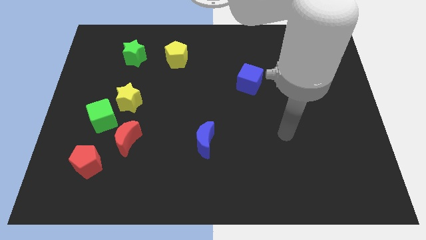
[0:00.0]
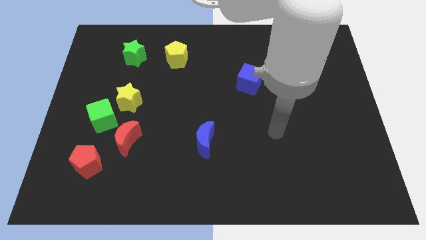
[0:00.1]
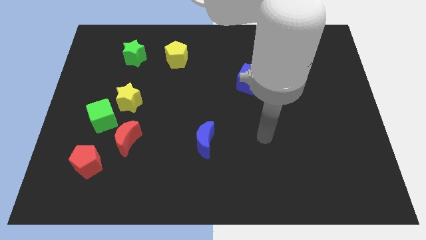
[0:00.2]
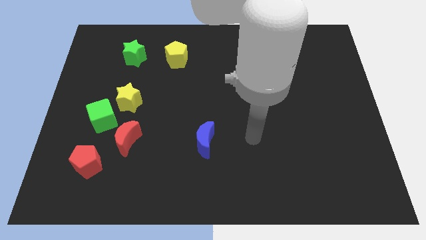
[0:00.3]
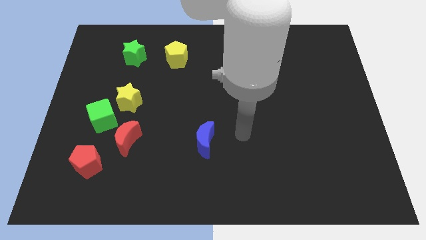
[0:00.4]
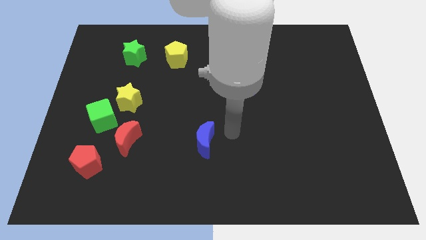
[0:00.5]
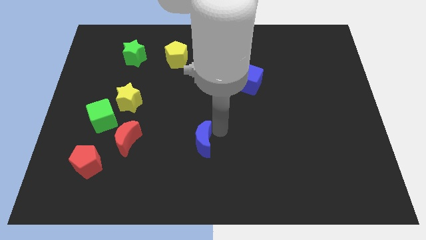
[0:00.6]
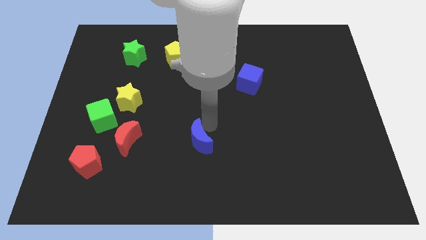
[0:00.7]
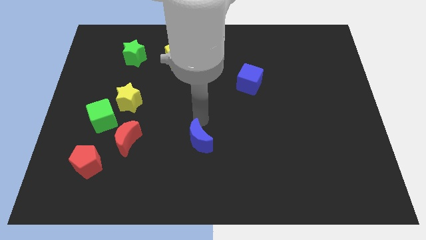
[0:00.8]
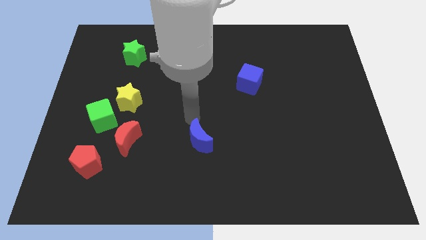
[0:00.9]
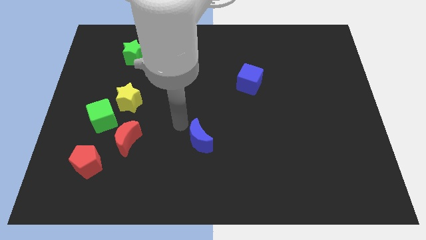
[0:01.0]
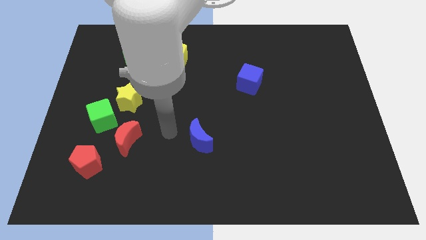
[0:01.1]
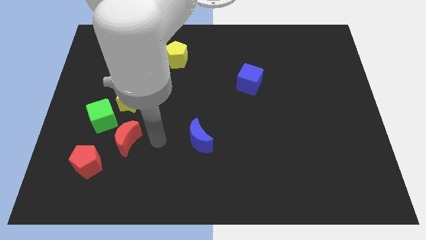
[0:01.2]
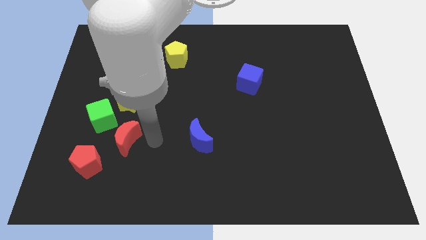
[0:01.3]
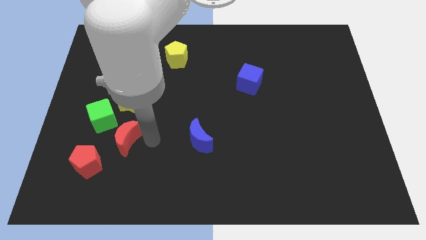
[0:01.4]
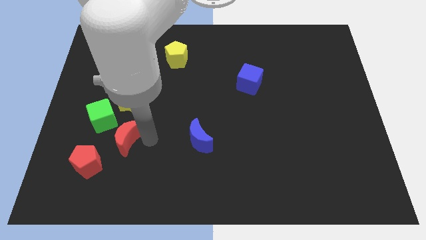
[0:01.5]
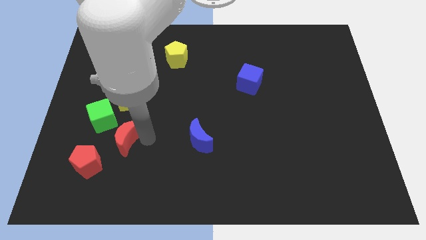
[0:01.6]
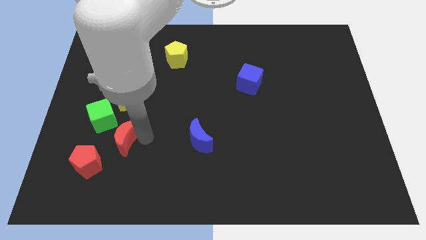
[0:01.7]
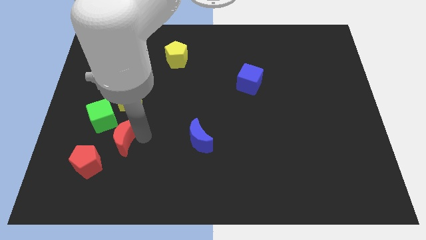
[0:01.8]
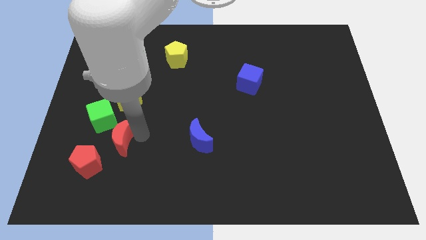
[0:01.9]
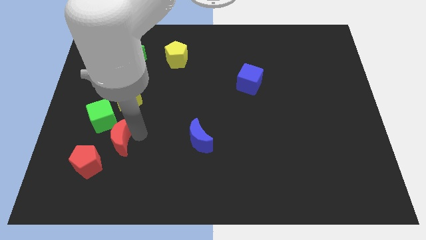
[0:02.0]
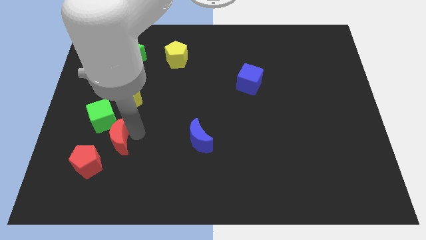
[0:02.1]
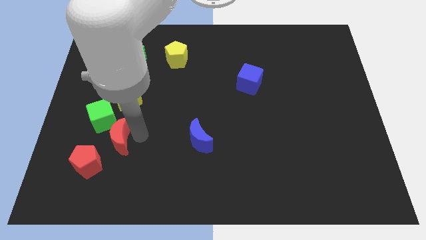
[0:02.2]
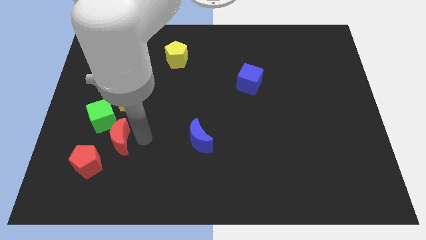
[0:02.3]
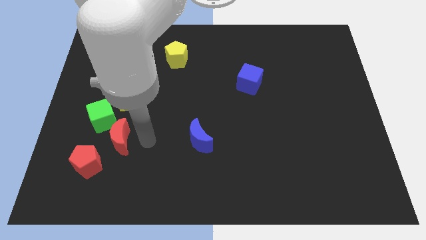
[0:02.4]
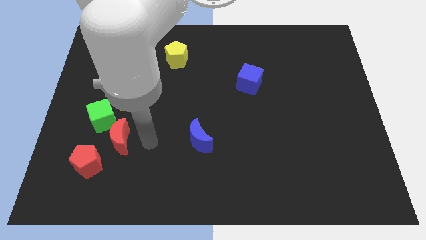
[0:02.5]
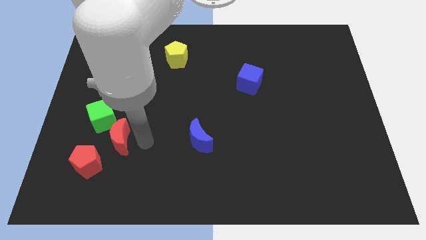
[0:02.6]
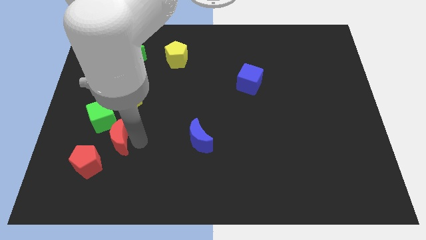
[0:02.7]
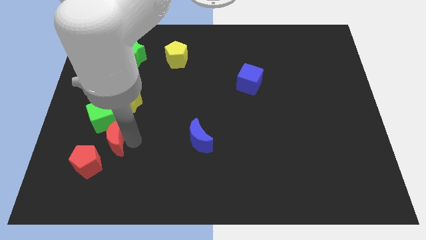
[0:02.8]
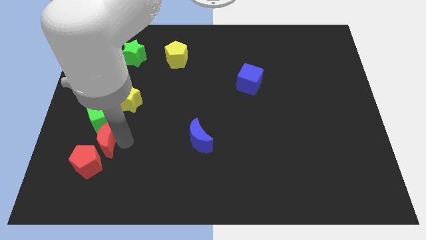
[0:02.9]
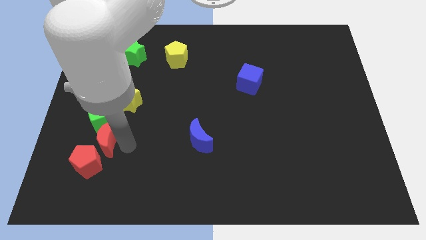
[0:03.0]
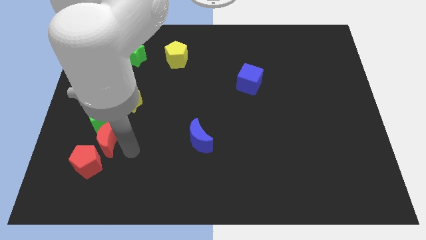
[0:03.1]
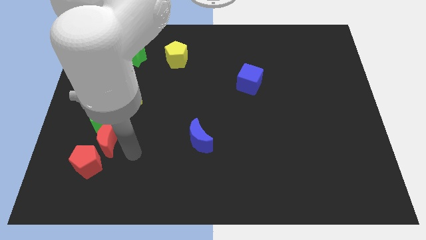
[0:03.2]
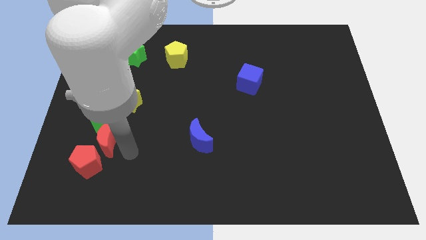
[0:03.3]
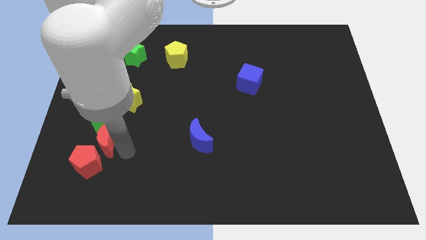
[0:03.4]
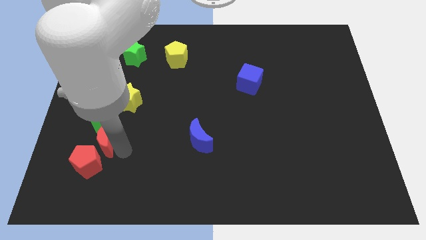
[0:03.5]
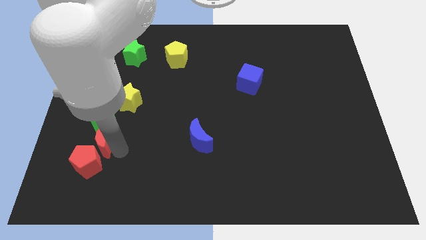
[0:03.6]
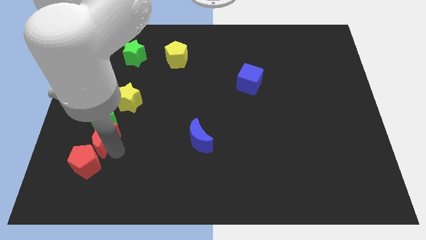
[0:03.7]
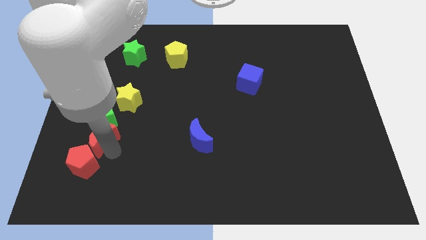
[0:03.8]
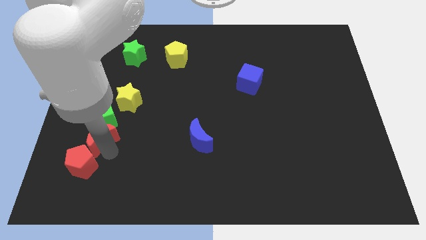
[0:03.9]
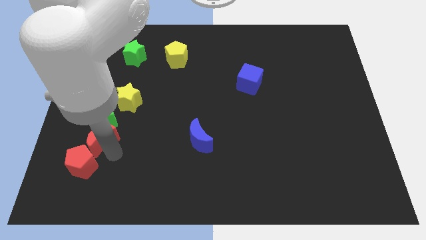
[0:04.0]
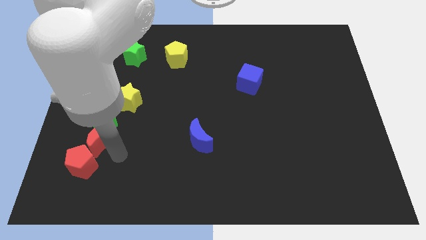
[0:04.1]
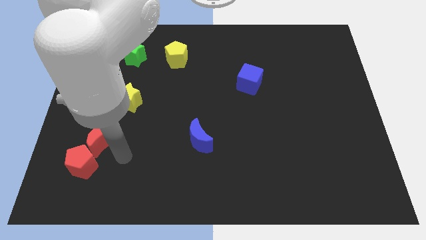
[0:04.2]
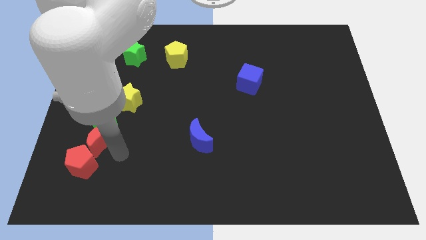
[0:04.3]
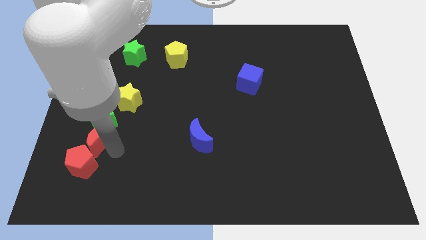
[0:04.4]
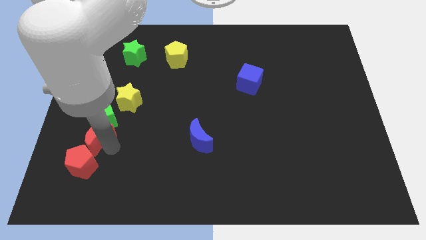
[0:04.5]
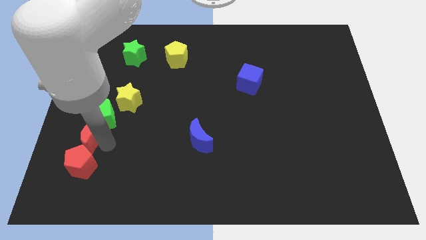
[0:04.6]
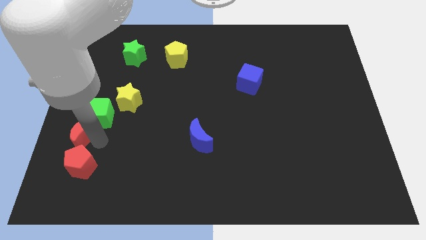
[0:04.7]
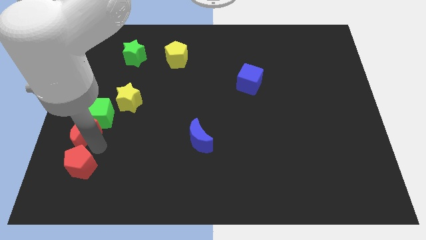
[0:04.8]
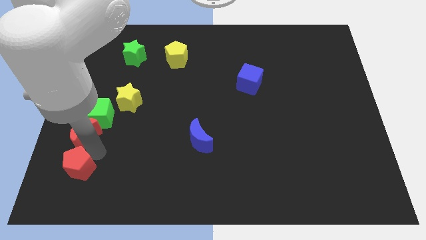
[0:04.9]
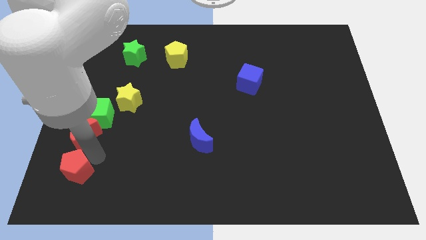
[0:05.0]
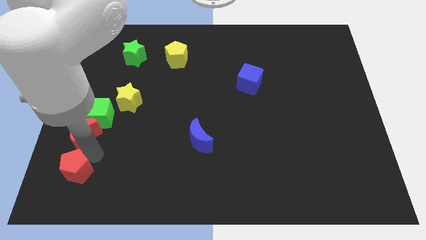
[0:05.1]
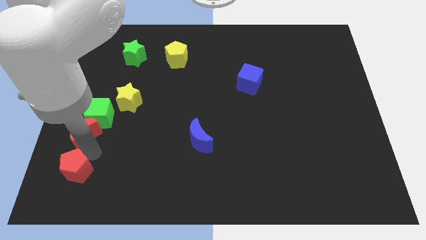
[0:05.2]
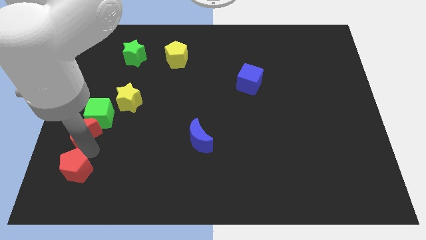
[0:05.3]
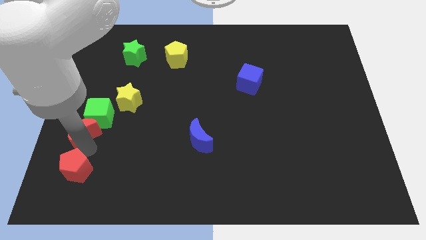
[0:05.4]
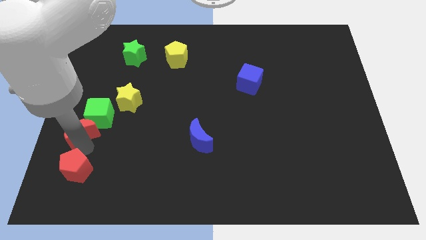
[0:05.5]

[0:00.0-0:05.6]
push the red moon to the left side of the board

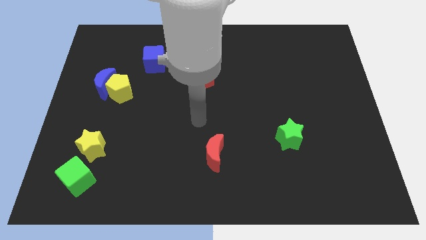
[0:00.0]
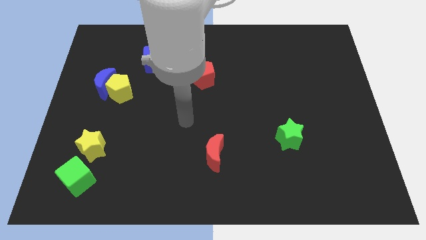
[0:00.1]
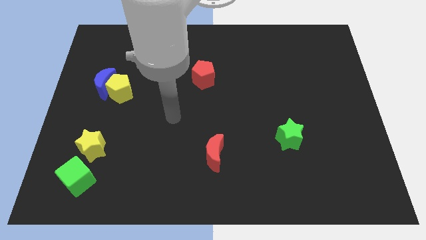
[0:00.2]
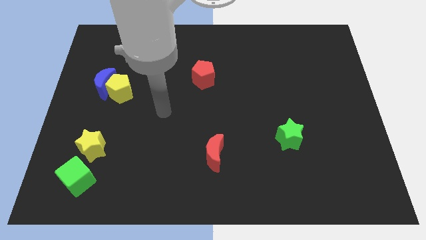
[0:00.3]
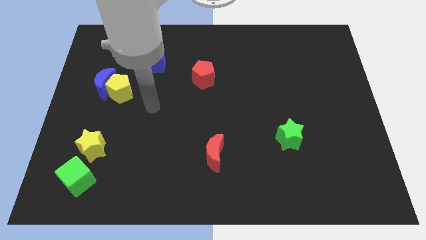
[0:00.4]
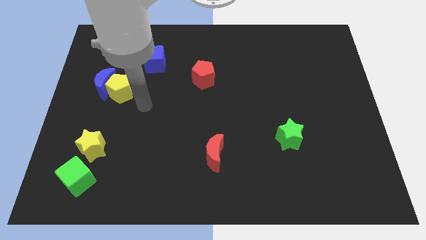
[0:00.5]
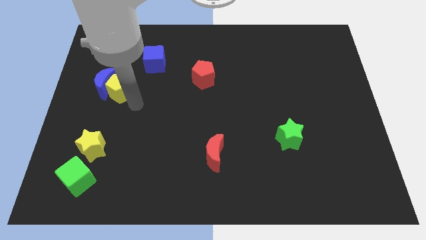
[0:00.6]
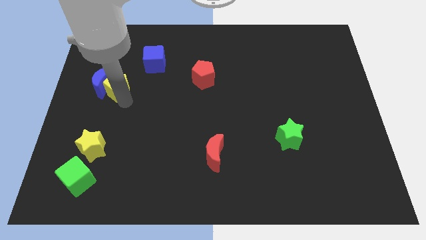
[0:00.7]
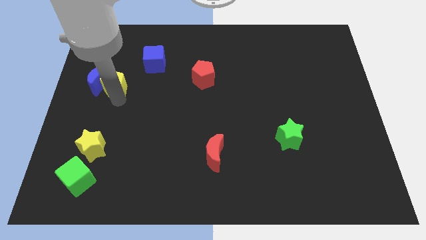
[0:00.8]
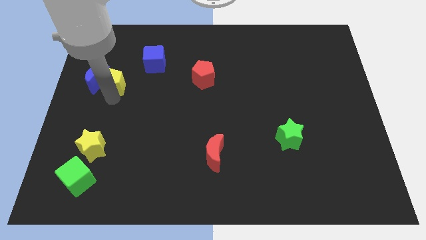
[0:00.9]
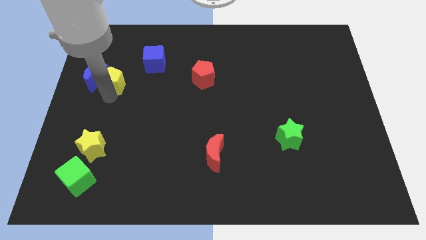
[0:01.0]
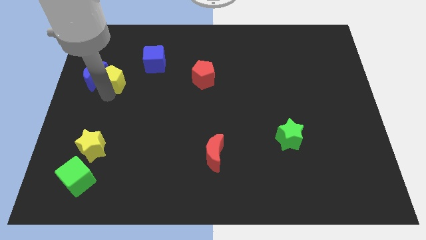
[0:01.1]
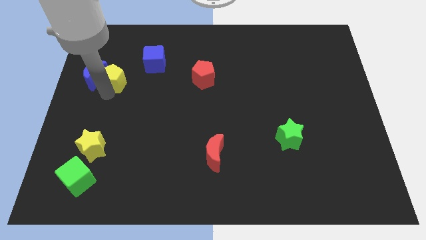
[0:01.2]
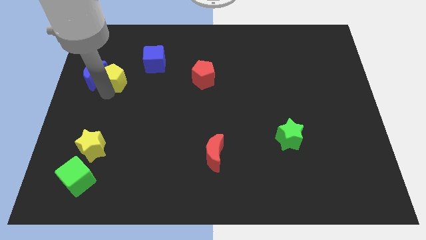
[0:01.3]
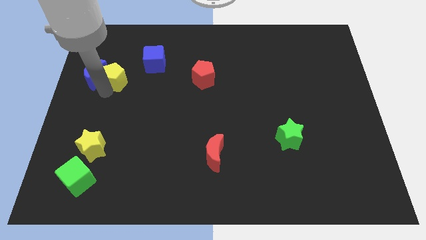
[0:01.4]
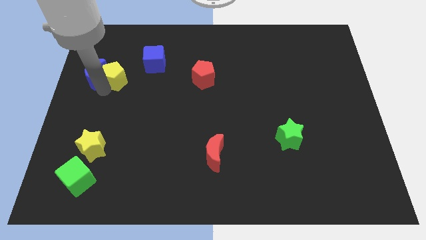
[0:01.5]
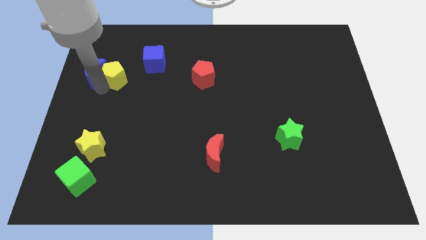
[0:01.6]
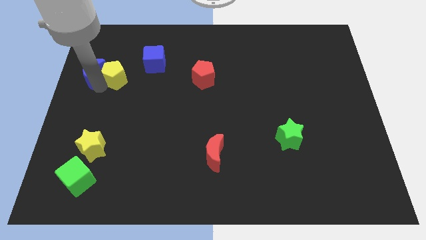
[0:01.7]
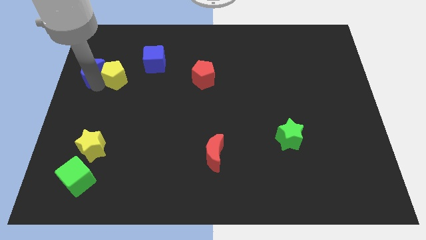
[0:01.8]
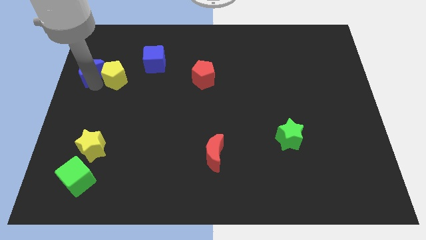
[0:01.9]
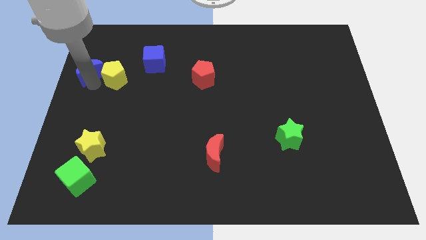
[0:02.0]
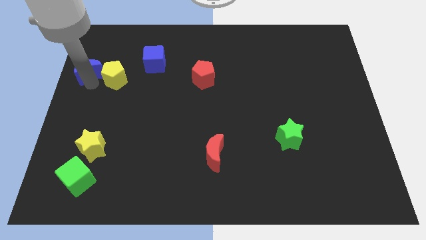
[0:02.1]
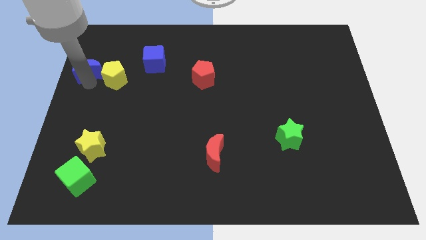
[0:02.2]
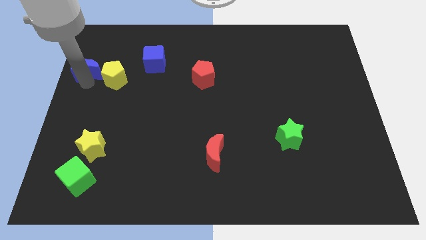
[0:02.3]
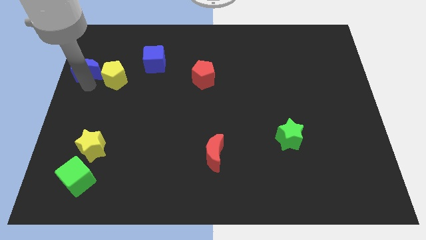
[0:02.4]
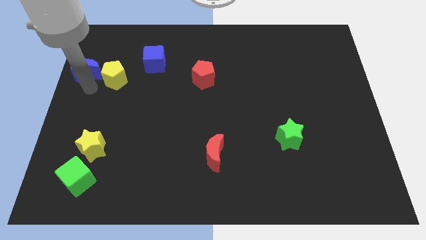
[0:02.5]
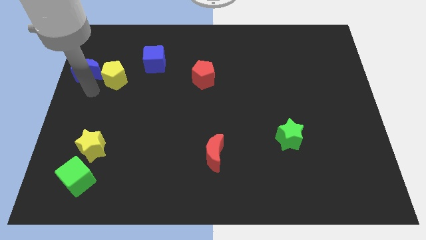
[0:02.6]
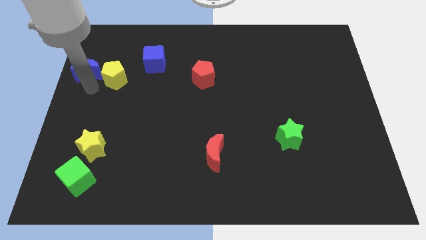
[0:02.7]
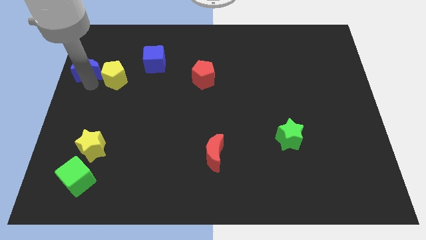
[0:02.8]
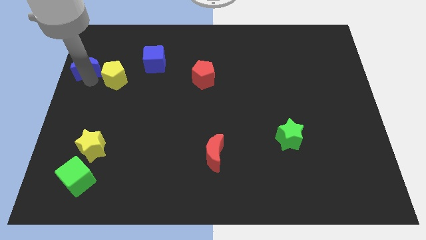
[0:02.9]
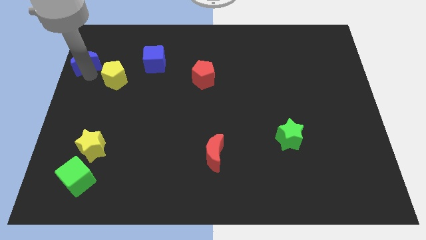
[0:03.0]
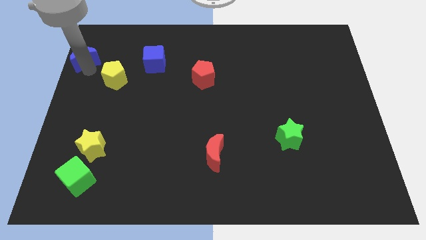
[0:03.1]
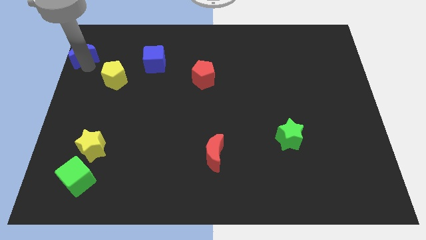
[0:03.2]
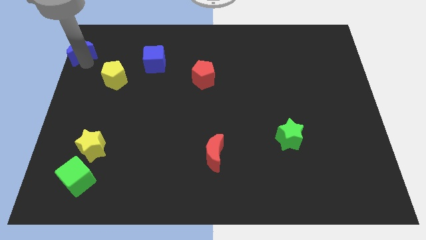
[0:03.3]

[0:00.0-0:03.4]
put the blue moon to the top left corner
